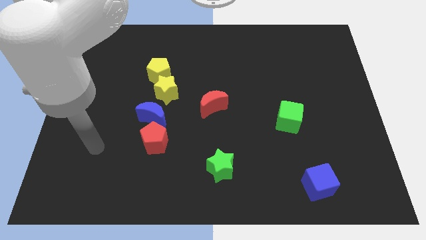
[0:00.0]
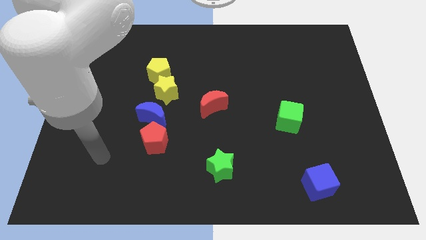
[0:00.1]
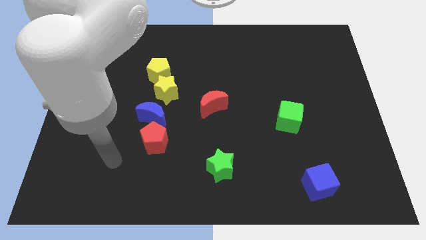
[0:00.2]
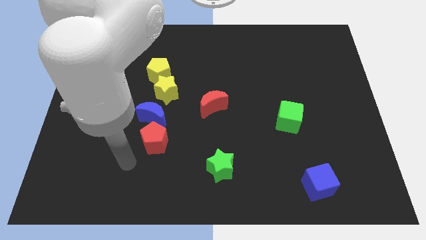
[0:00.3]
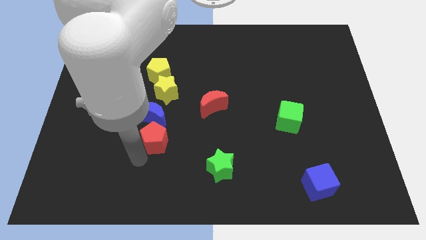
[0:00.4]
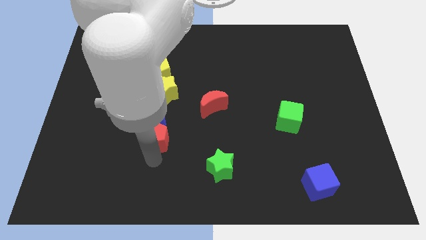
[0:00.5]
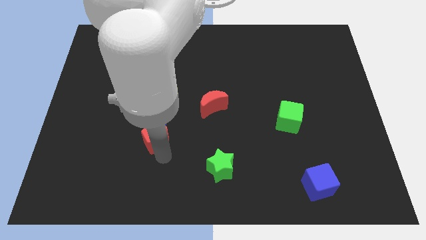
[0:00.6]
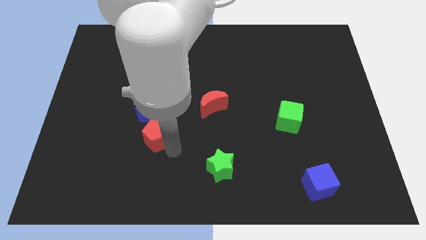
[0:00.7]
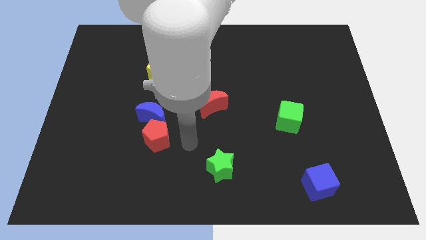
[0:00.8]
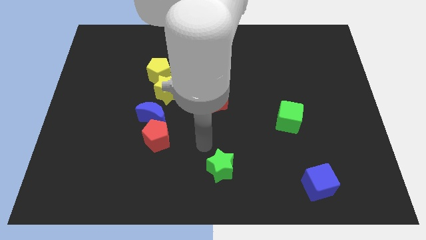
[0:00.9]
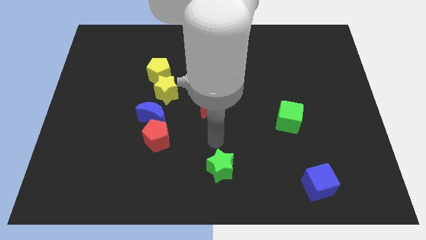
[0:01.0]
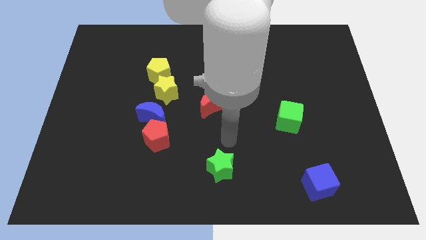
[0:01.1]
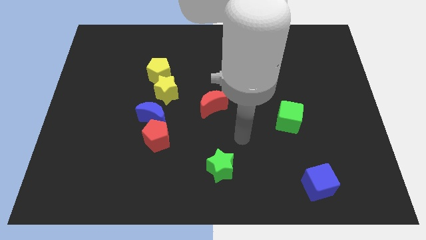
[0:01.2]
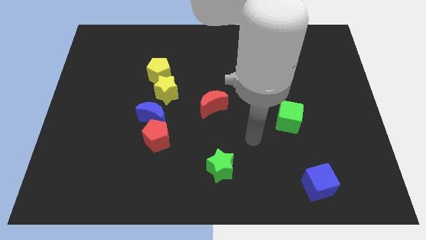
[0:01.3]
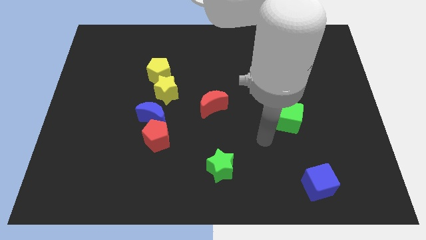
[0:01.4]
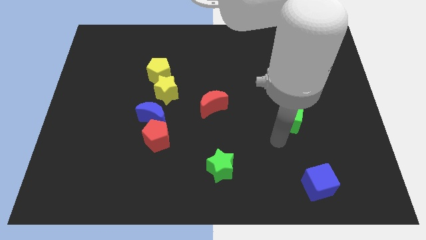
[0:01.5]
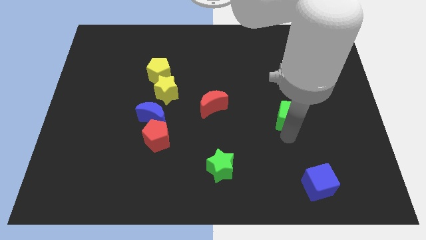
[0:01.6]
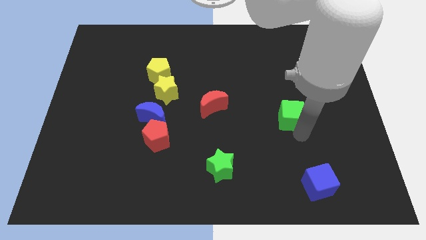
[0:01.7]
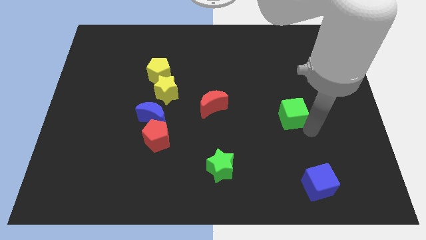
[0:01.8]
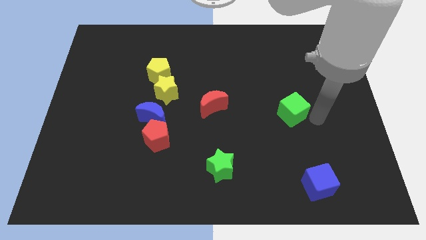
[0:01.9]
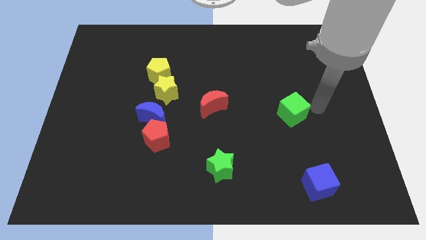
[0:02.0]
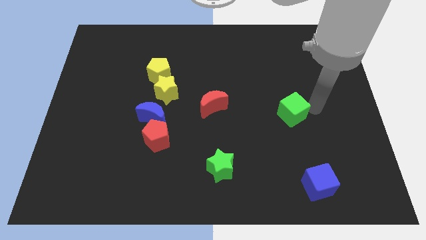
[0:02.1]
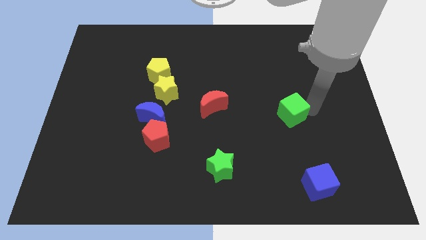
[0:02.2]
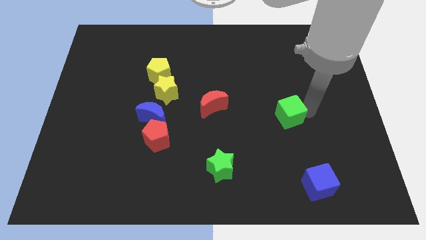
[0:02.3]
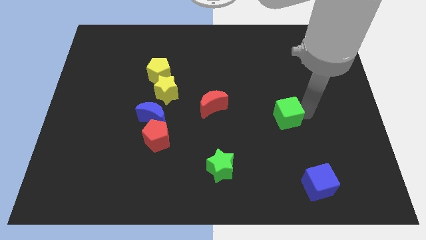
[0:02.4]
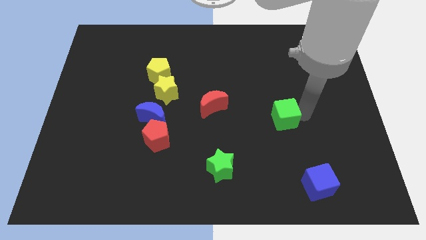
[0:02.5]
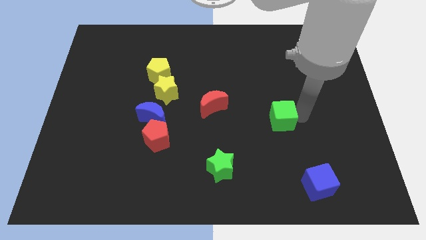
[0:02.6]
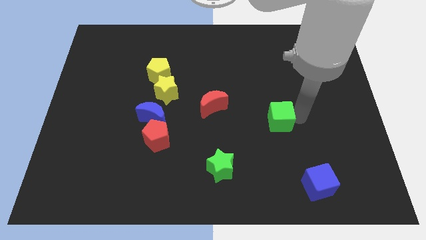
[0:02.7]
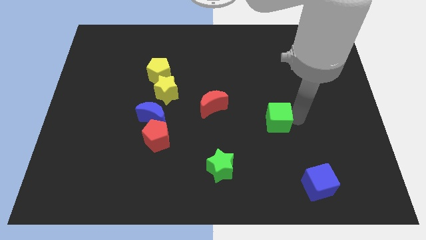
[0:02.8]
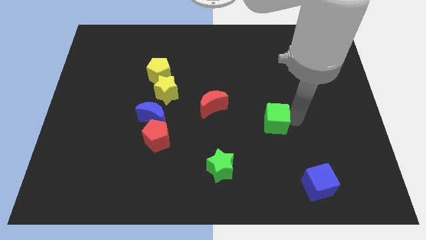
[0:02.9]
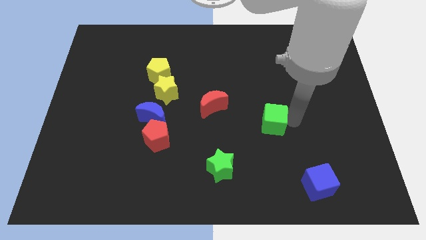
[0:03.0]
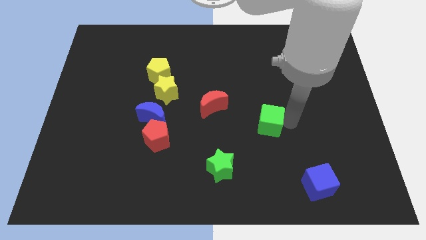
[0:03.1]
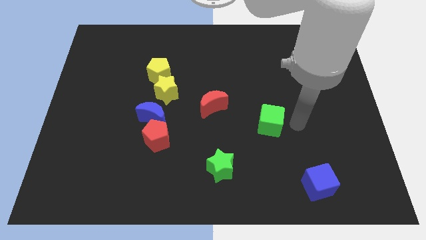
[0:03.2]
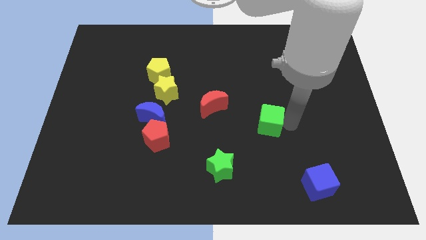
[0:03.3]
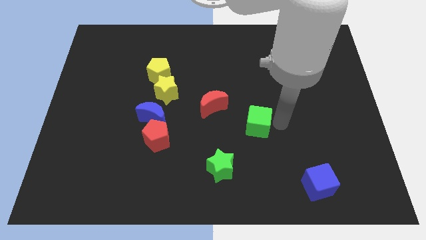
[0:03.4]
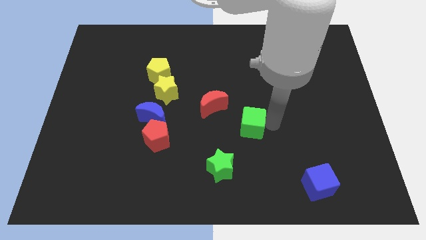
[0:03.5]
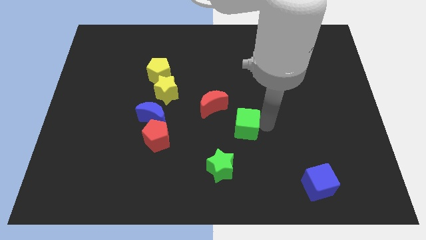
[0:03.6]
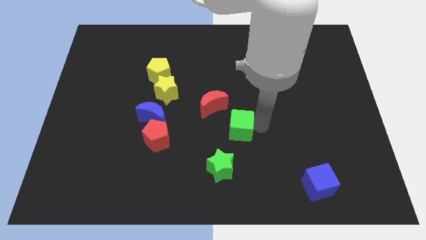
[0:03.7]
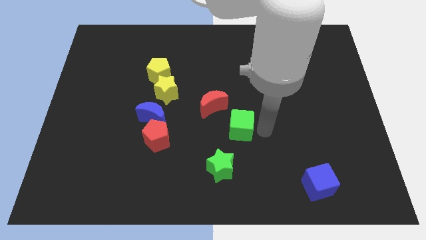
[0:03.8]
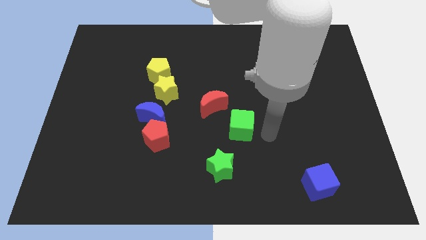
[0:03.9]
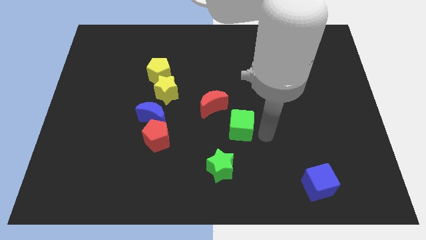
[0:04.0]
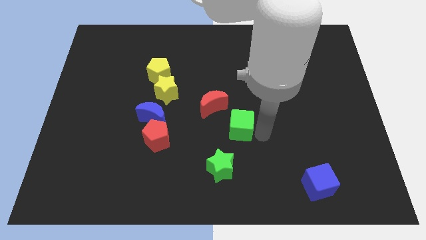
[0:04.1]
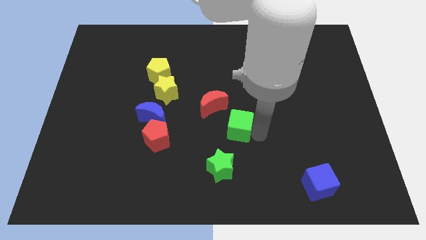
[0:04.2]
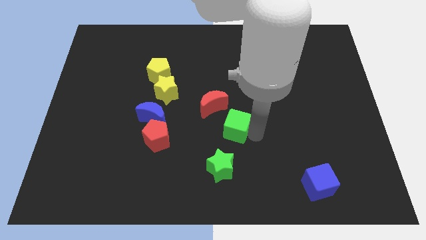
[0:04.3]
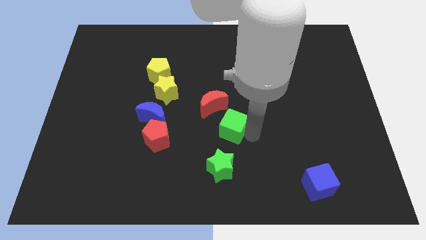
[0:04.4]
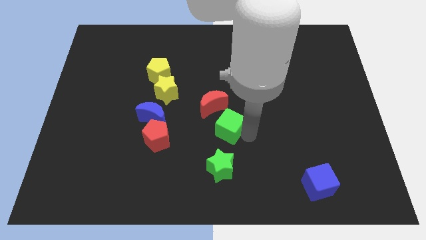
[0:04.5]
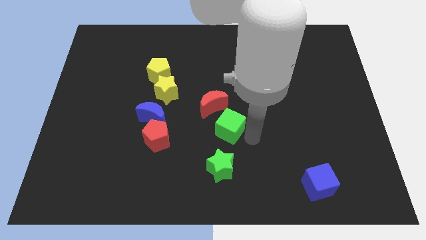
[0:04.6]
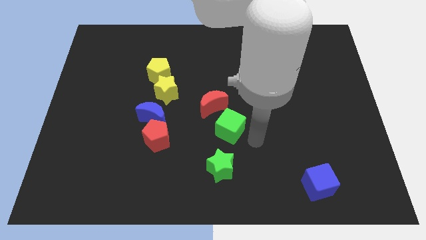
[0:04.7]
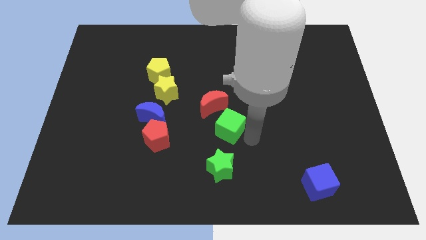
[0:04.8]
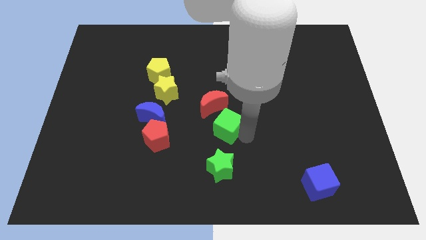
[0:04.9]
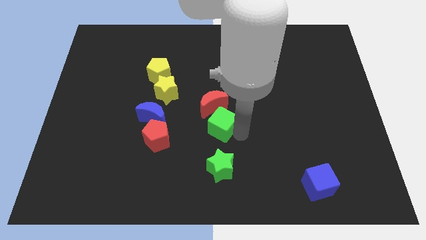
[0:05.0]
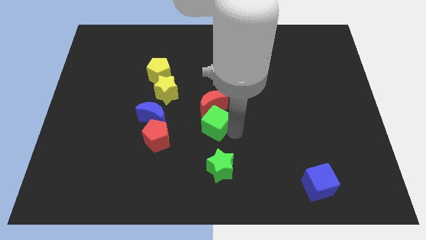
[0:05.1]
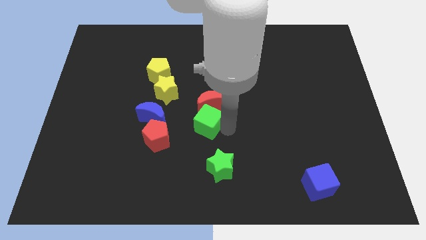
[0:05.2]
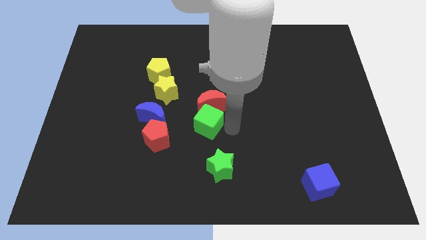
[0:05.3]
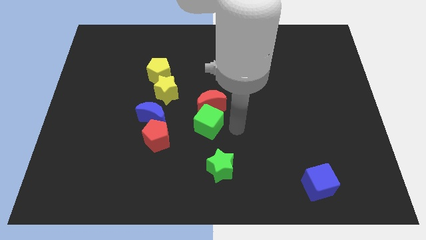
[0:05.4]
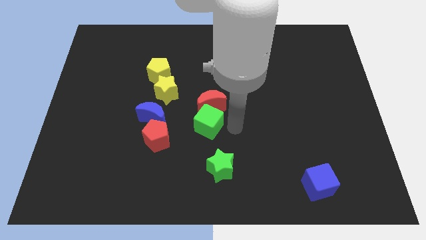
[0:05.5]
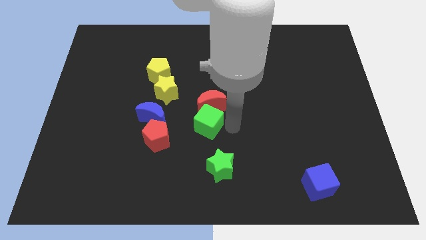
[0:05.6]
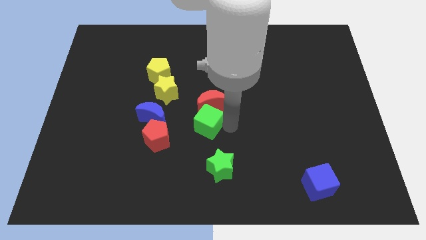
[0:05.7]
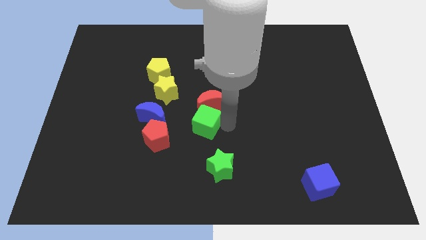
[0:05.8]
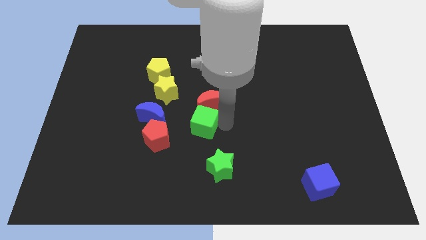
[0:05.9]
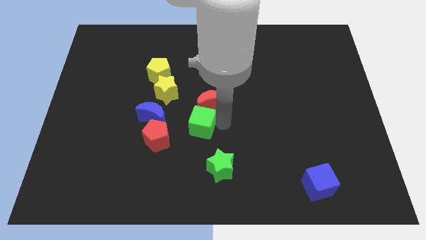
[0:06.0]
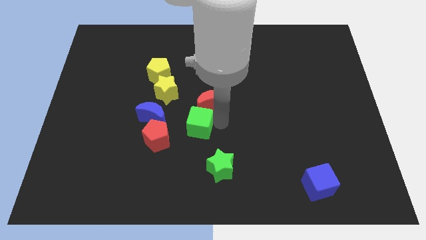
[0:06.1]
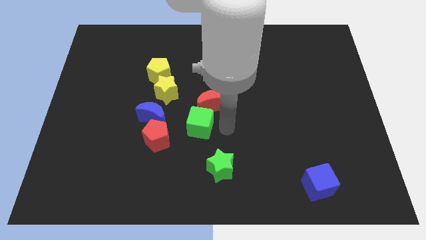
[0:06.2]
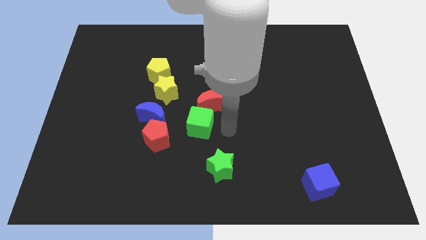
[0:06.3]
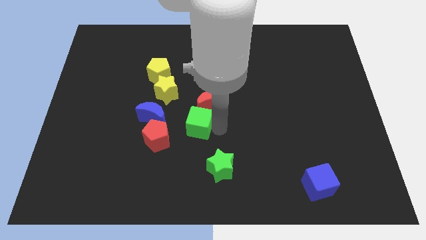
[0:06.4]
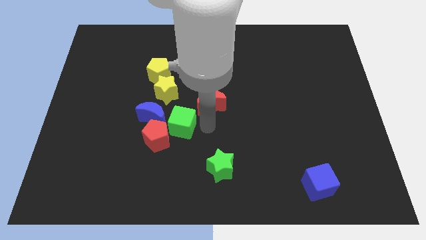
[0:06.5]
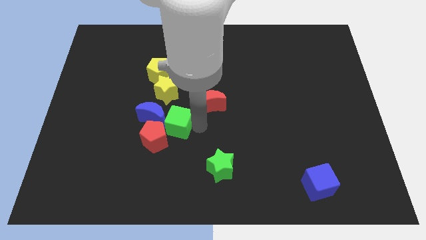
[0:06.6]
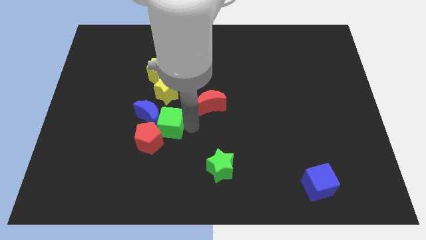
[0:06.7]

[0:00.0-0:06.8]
move the green cube to the blue moon
